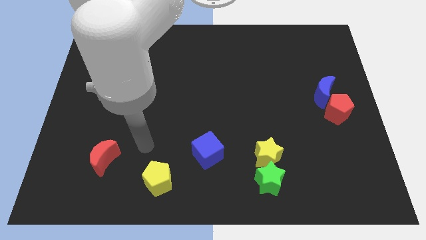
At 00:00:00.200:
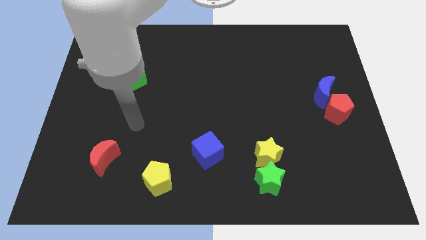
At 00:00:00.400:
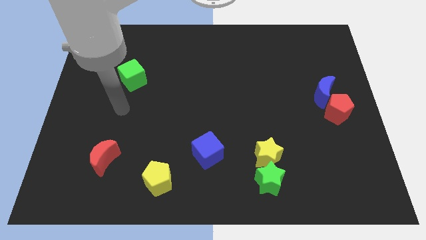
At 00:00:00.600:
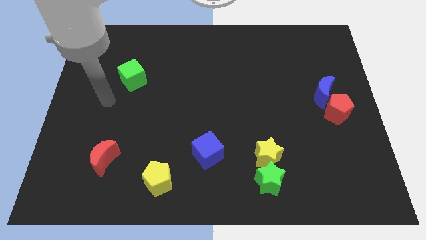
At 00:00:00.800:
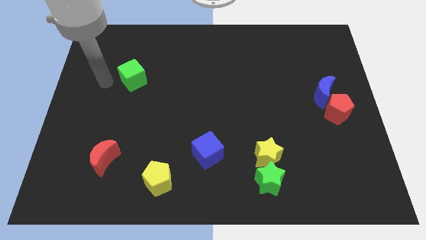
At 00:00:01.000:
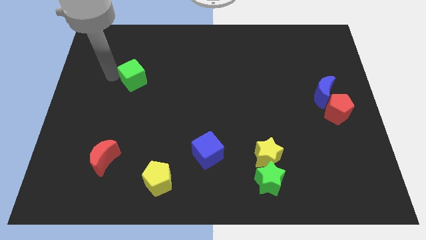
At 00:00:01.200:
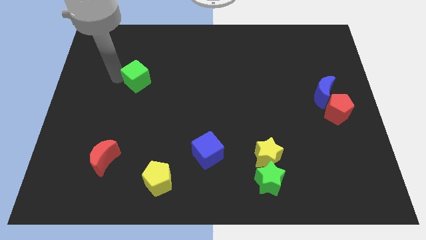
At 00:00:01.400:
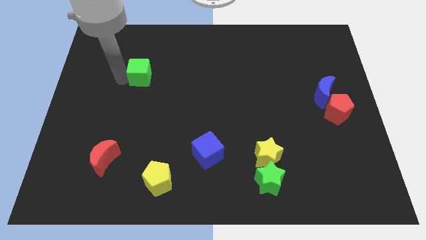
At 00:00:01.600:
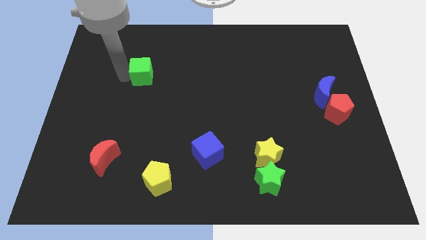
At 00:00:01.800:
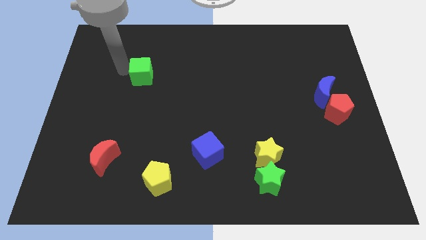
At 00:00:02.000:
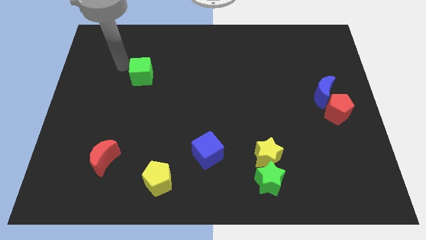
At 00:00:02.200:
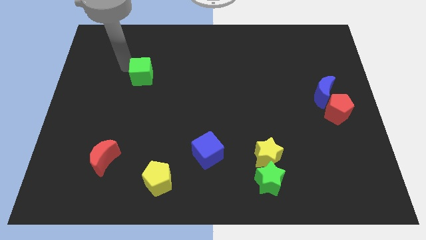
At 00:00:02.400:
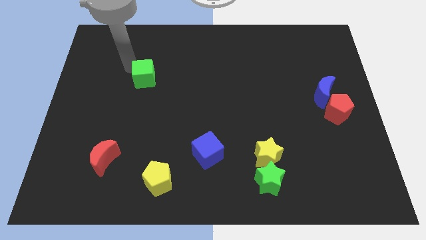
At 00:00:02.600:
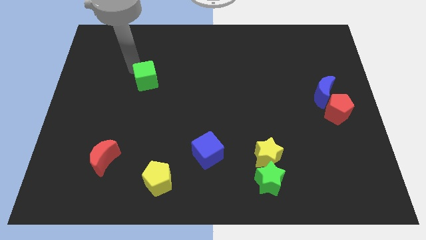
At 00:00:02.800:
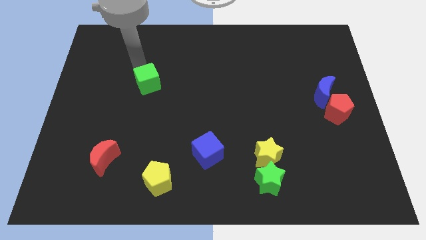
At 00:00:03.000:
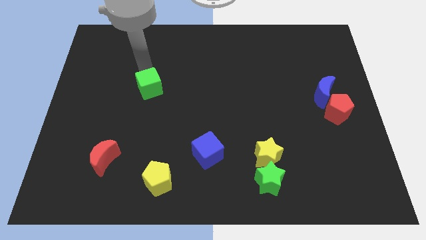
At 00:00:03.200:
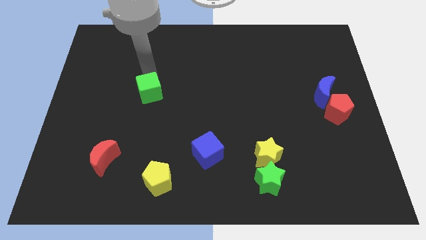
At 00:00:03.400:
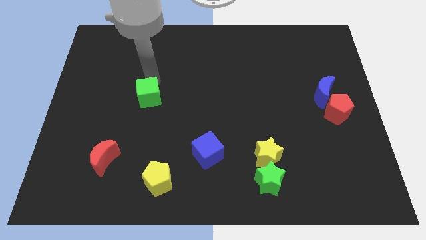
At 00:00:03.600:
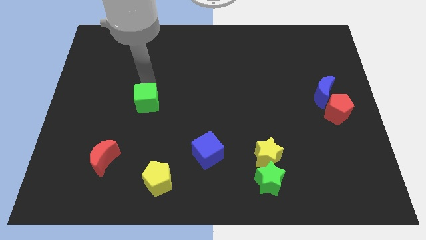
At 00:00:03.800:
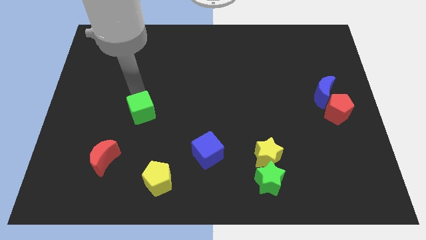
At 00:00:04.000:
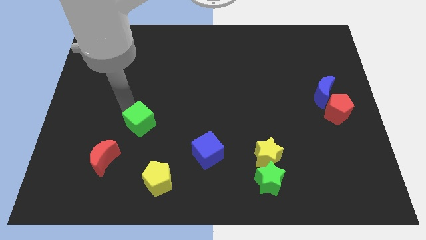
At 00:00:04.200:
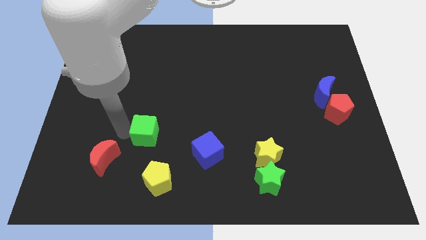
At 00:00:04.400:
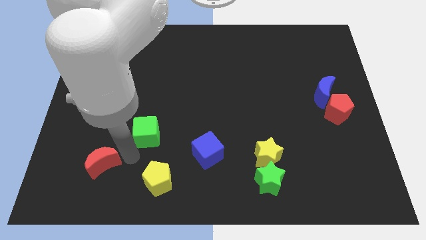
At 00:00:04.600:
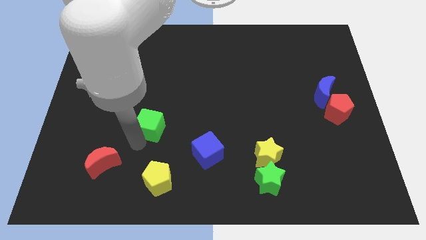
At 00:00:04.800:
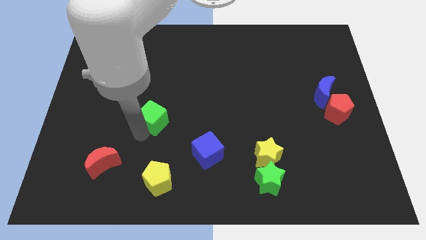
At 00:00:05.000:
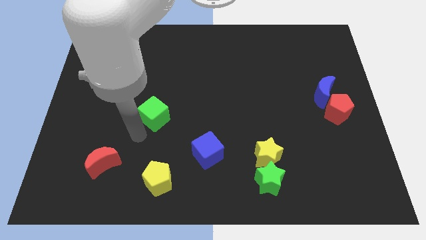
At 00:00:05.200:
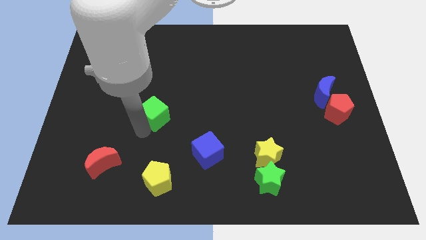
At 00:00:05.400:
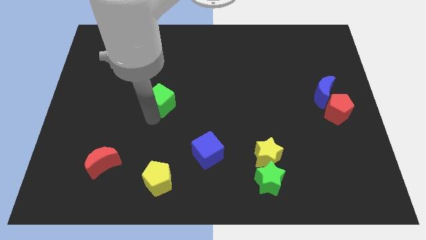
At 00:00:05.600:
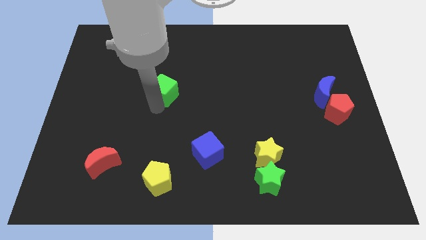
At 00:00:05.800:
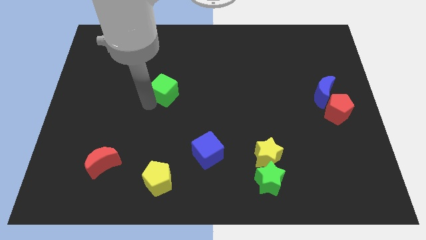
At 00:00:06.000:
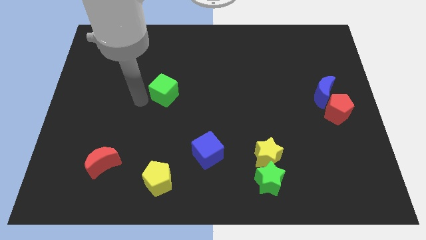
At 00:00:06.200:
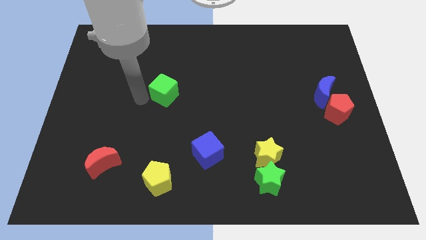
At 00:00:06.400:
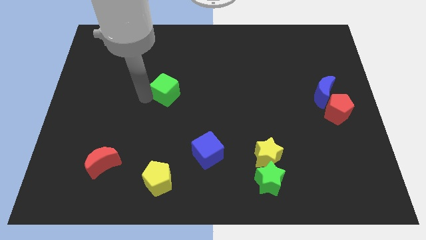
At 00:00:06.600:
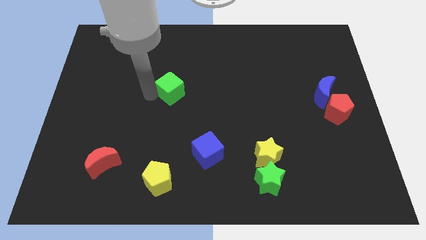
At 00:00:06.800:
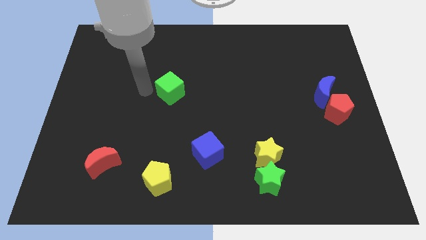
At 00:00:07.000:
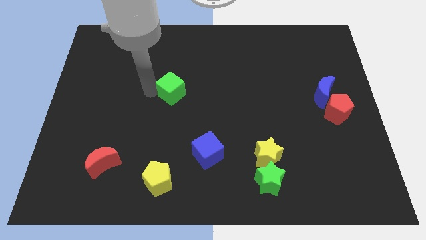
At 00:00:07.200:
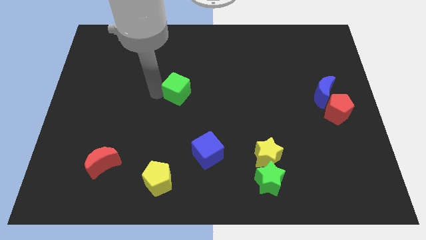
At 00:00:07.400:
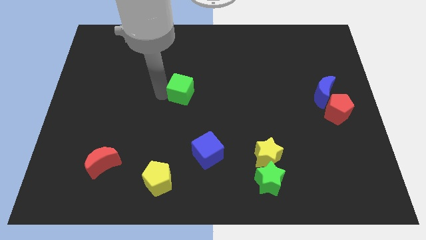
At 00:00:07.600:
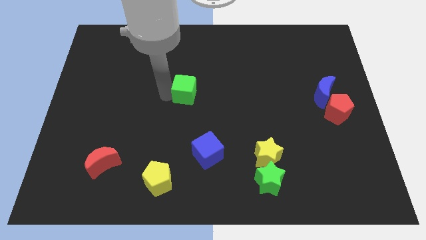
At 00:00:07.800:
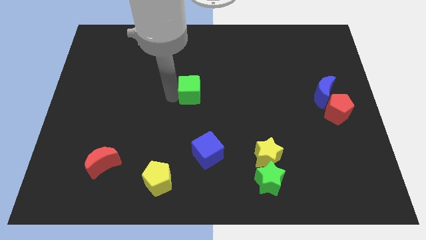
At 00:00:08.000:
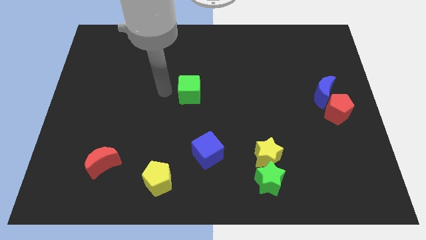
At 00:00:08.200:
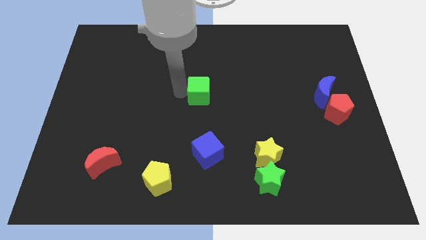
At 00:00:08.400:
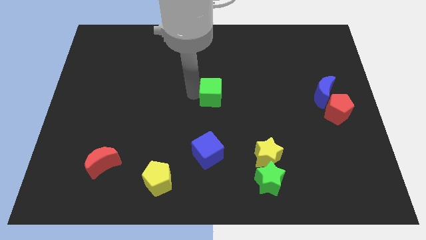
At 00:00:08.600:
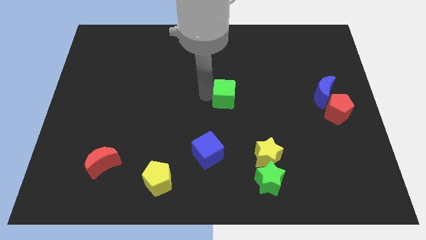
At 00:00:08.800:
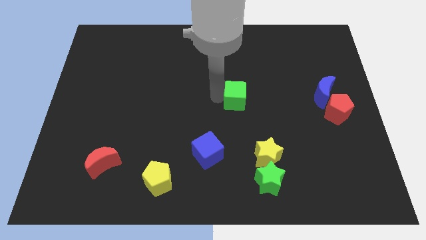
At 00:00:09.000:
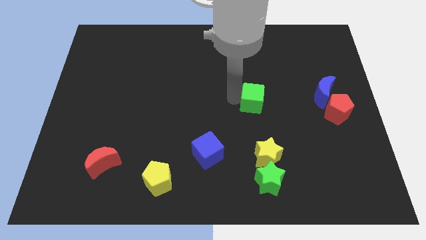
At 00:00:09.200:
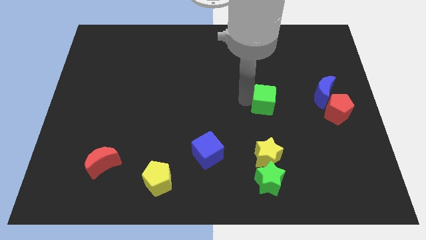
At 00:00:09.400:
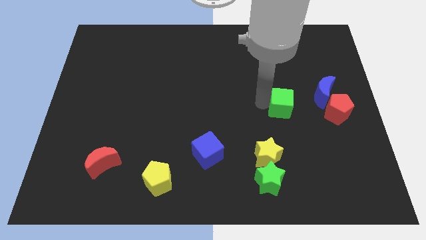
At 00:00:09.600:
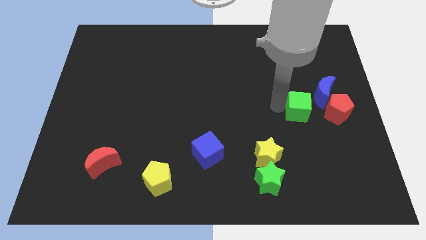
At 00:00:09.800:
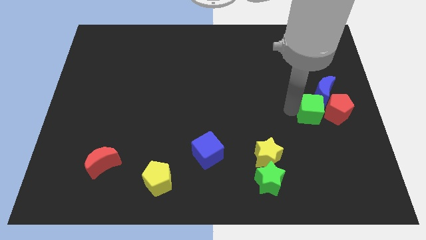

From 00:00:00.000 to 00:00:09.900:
push the green cube close to the red pentagon

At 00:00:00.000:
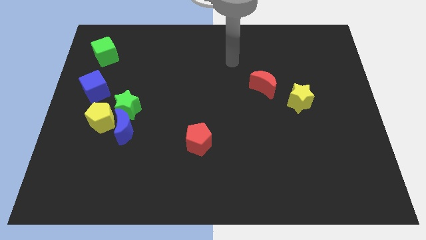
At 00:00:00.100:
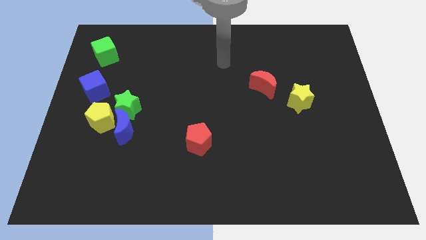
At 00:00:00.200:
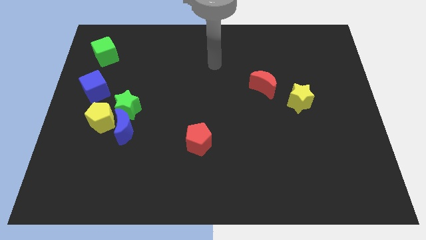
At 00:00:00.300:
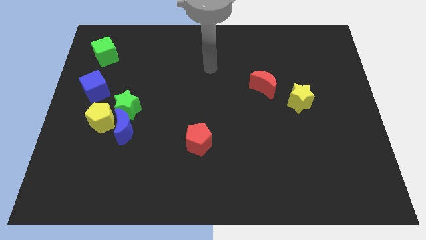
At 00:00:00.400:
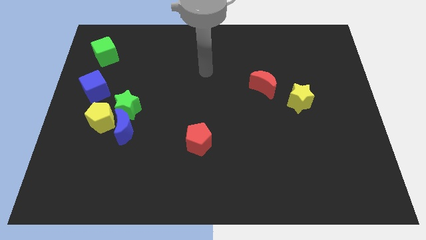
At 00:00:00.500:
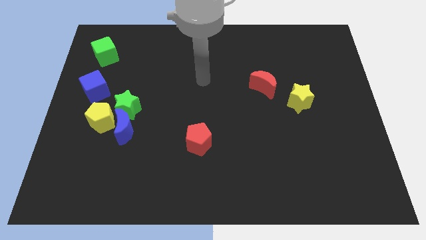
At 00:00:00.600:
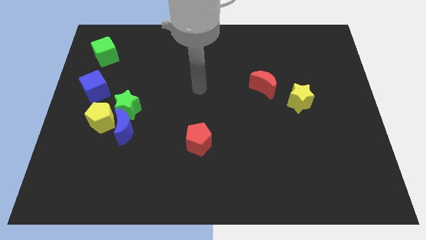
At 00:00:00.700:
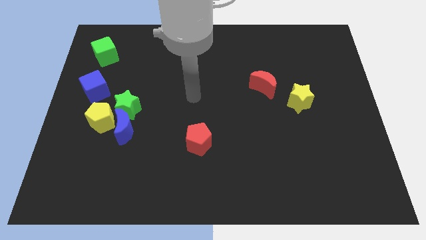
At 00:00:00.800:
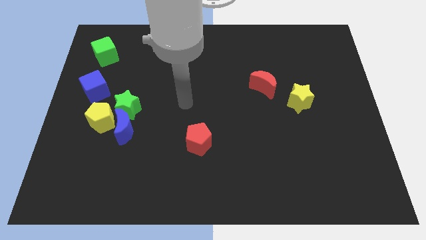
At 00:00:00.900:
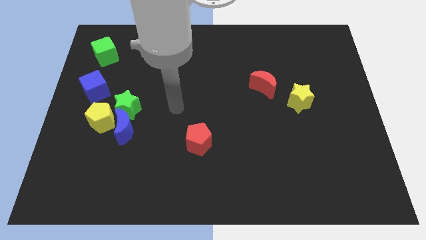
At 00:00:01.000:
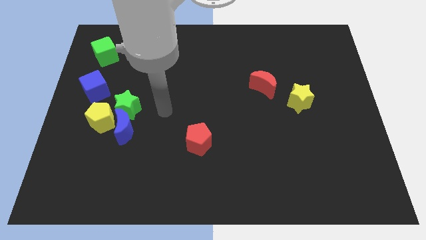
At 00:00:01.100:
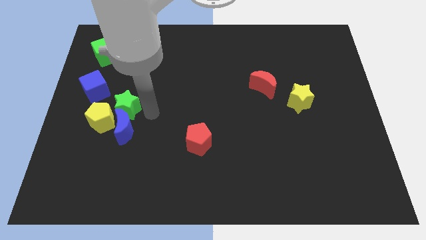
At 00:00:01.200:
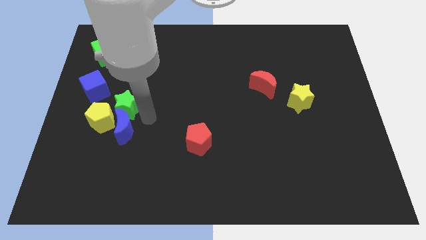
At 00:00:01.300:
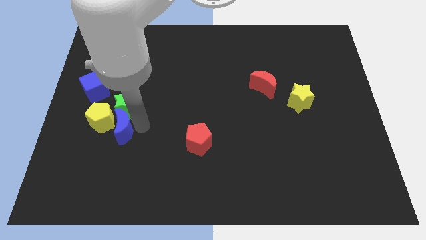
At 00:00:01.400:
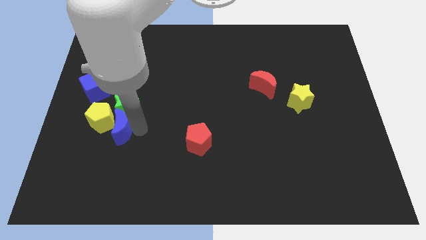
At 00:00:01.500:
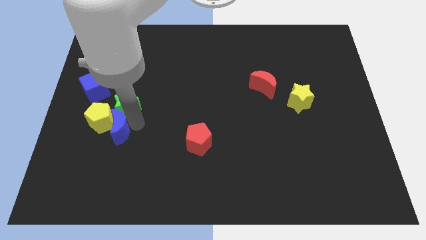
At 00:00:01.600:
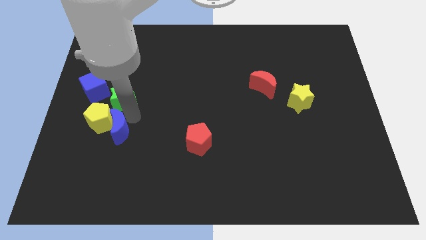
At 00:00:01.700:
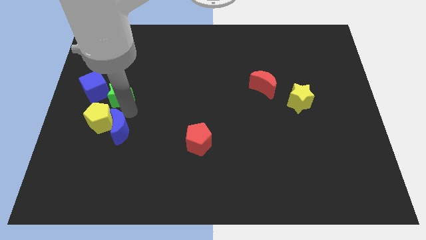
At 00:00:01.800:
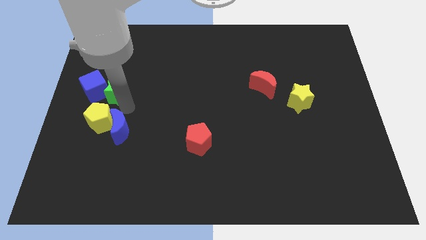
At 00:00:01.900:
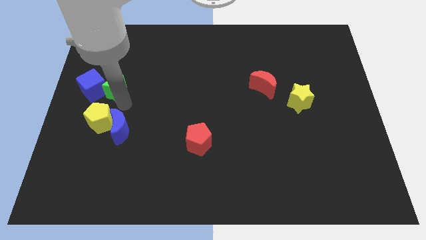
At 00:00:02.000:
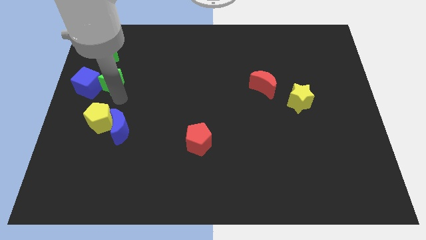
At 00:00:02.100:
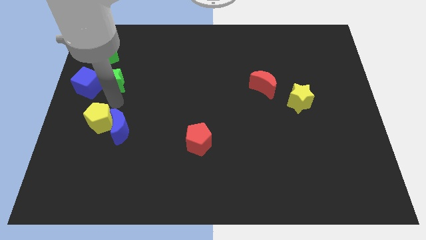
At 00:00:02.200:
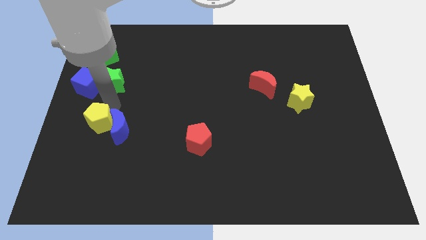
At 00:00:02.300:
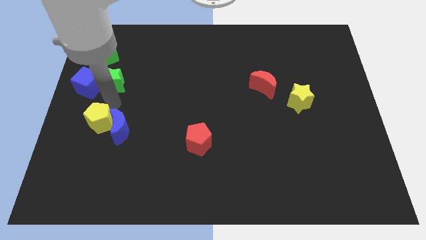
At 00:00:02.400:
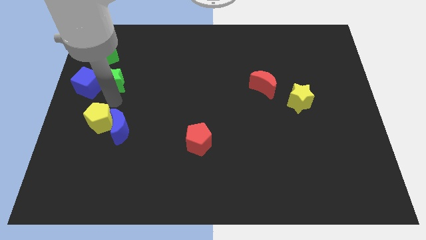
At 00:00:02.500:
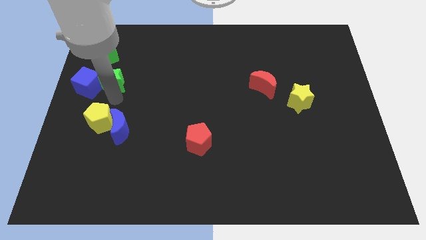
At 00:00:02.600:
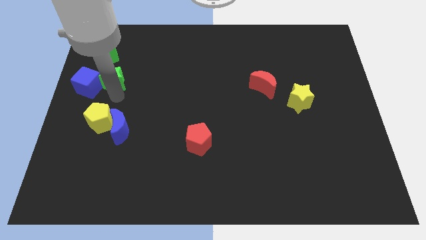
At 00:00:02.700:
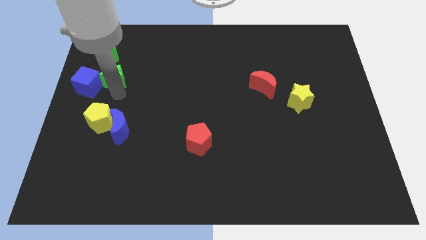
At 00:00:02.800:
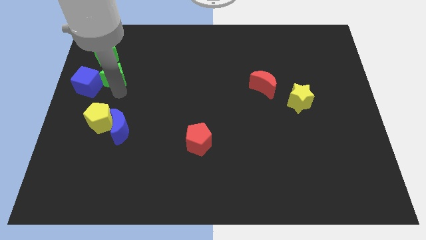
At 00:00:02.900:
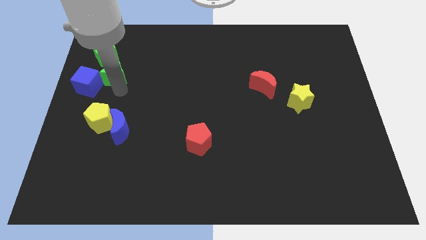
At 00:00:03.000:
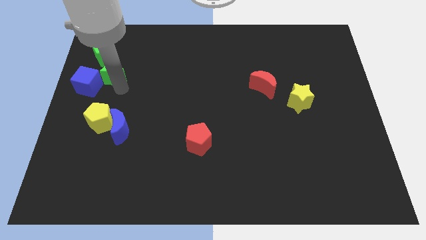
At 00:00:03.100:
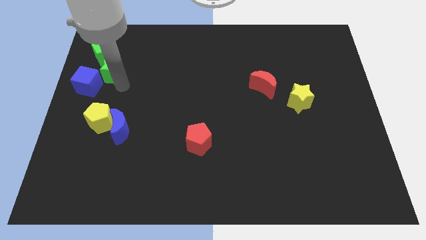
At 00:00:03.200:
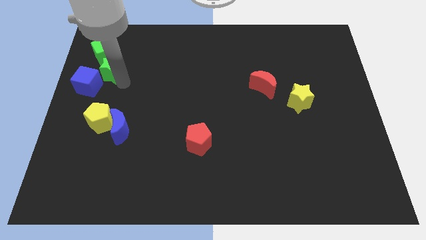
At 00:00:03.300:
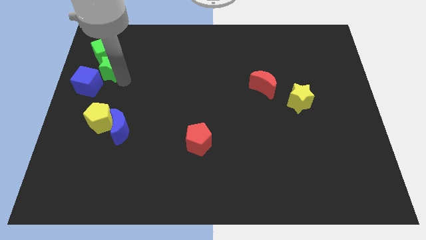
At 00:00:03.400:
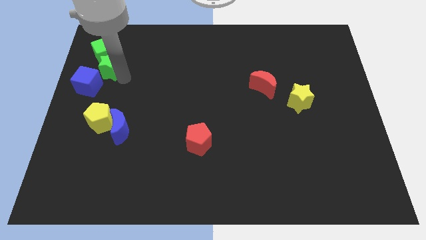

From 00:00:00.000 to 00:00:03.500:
push the green star towards the green cube
